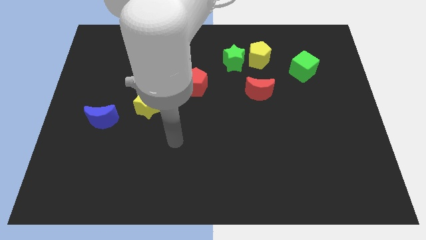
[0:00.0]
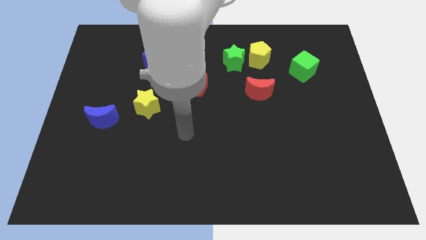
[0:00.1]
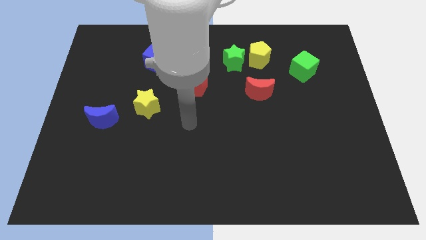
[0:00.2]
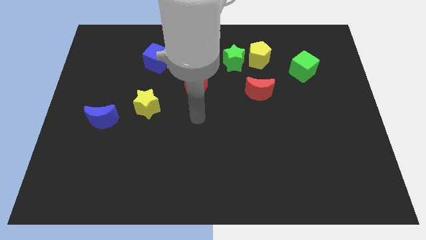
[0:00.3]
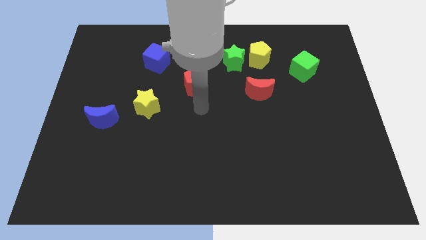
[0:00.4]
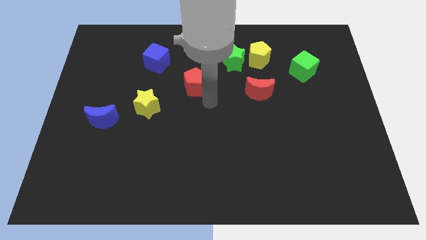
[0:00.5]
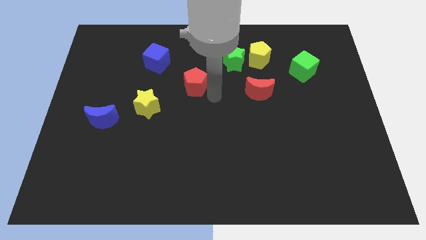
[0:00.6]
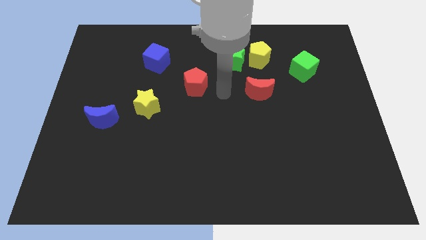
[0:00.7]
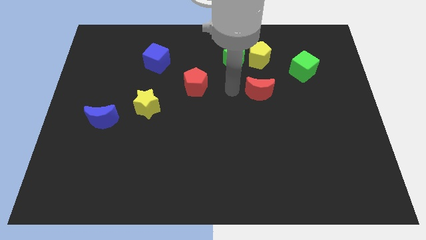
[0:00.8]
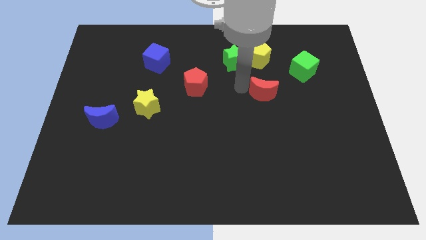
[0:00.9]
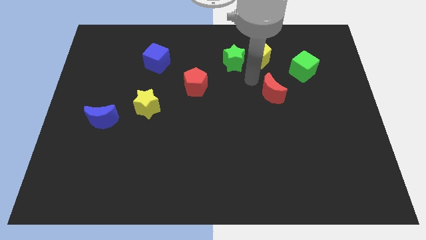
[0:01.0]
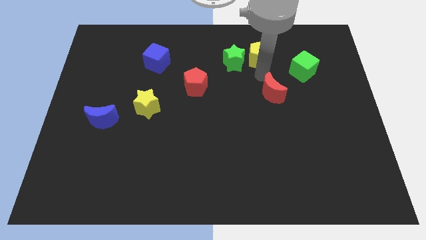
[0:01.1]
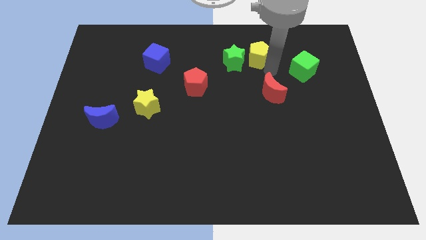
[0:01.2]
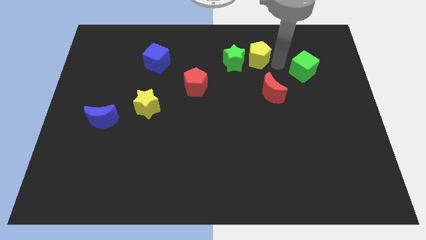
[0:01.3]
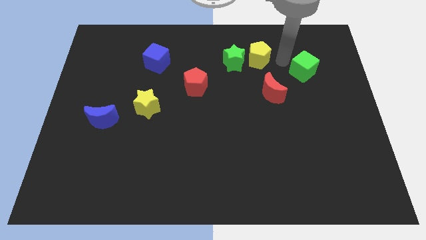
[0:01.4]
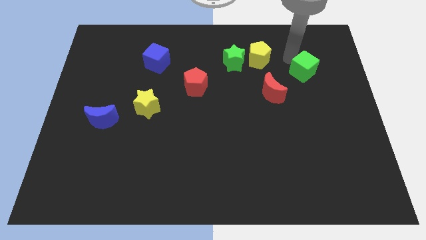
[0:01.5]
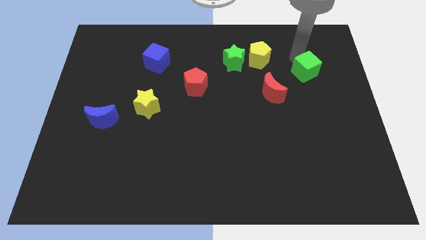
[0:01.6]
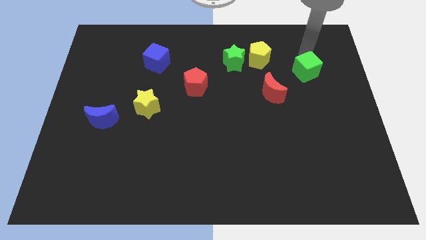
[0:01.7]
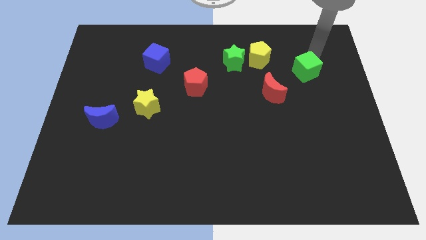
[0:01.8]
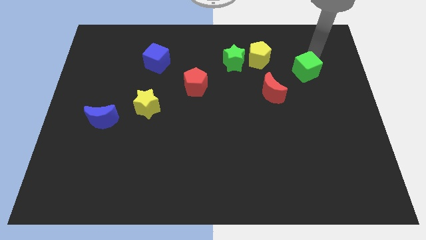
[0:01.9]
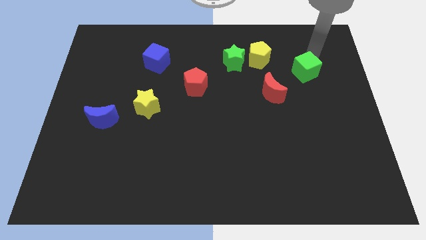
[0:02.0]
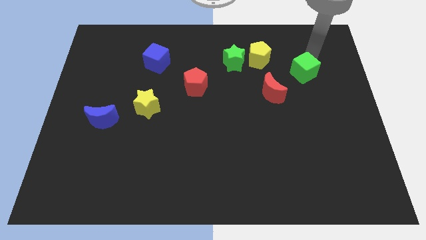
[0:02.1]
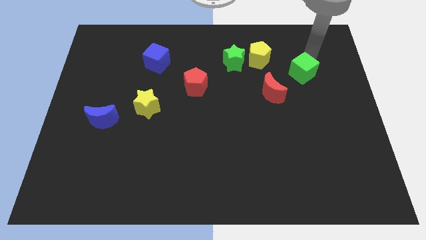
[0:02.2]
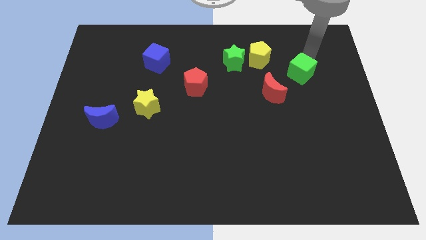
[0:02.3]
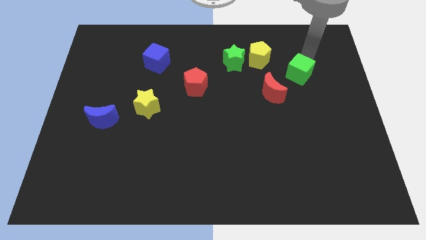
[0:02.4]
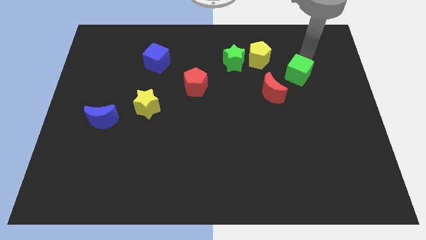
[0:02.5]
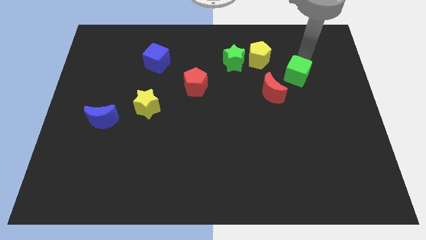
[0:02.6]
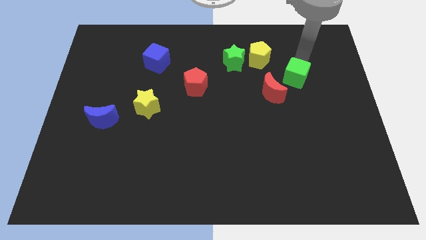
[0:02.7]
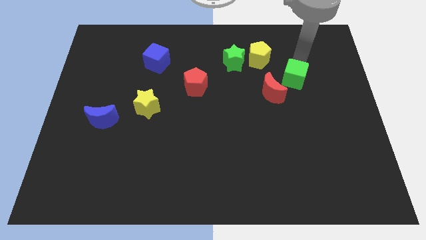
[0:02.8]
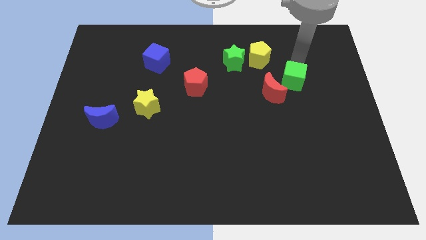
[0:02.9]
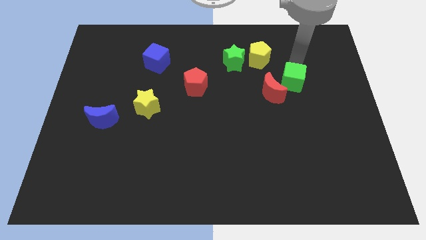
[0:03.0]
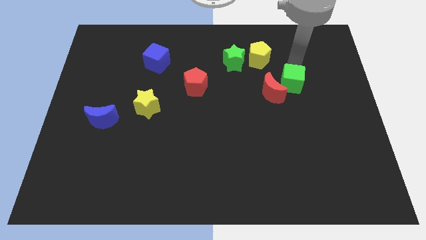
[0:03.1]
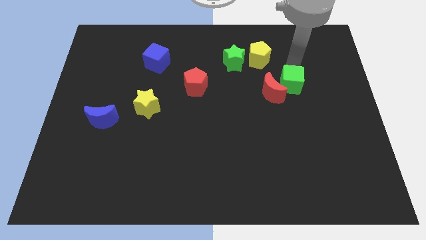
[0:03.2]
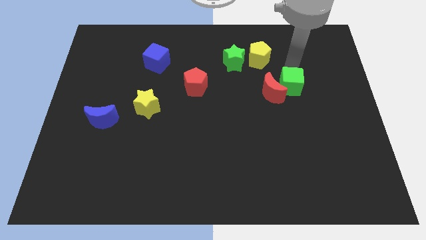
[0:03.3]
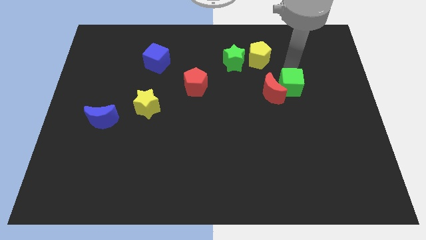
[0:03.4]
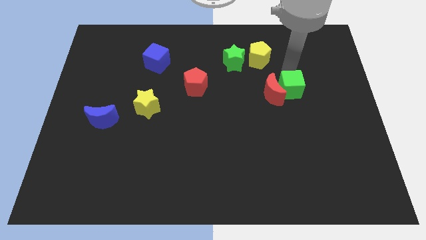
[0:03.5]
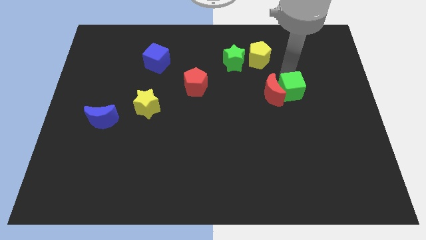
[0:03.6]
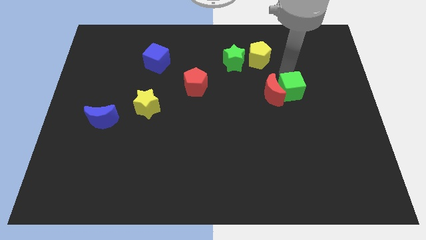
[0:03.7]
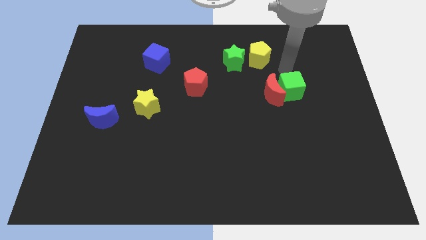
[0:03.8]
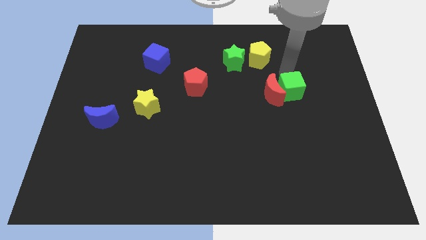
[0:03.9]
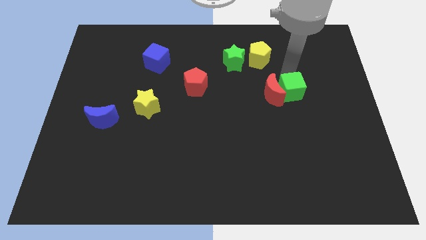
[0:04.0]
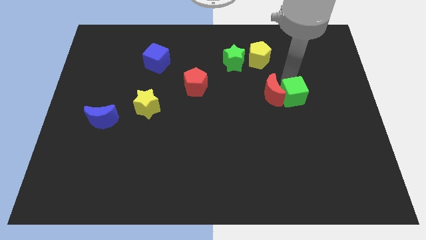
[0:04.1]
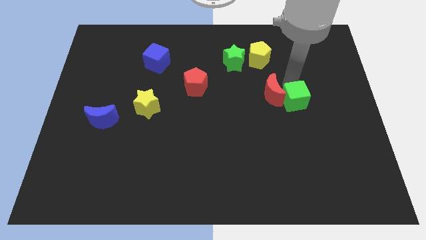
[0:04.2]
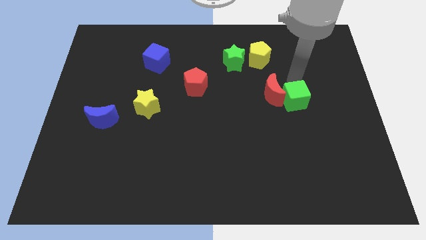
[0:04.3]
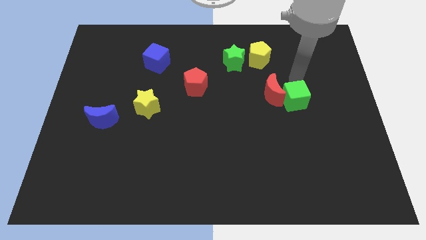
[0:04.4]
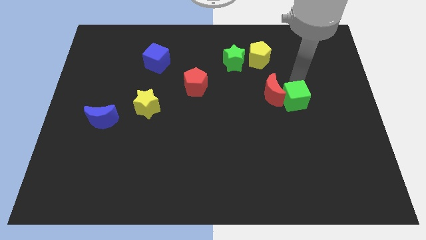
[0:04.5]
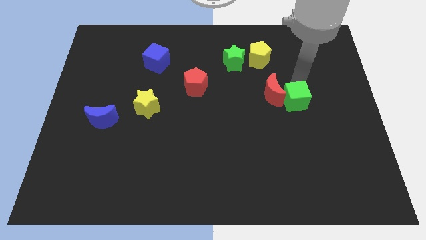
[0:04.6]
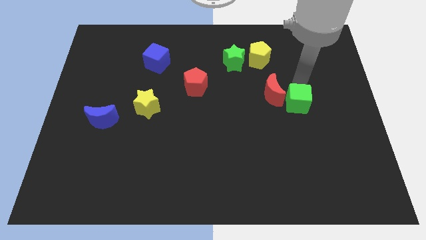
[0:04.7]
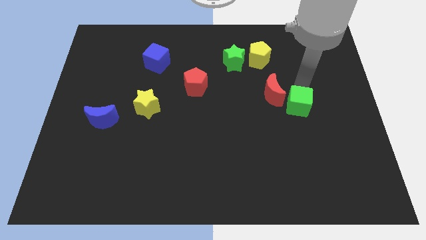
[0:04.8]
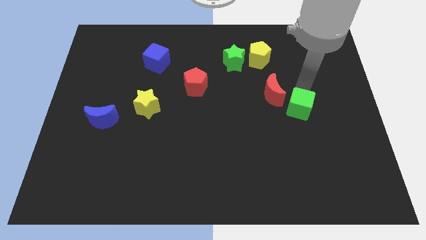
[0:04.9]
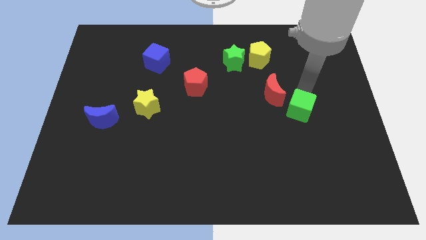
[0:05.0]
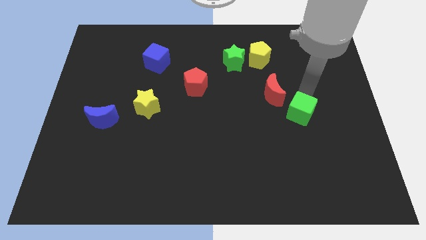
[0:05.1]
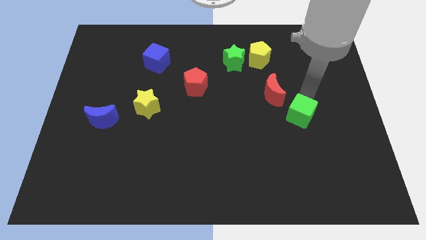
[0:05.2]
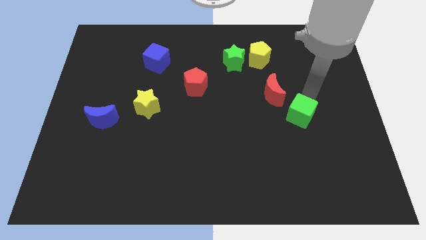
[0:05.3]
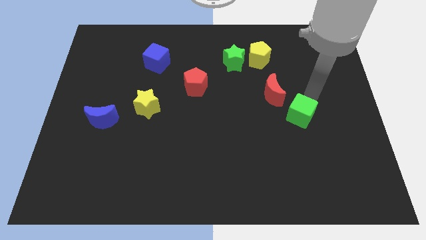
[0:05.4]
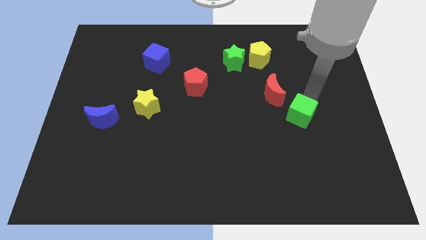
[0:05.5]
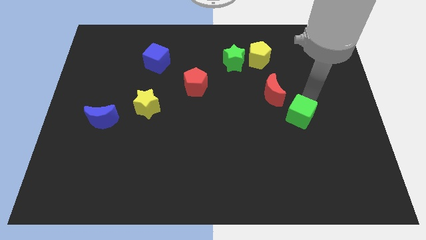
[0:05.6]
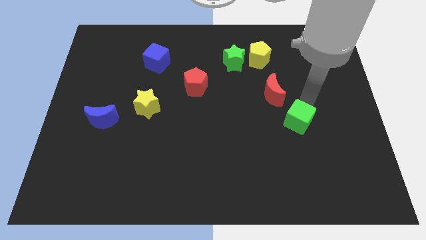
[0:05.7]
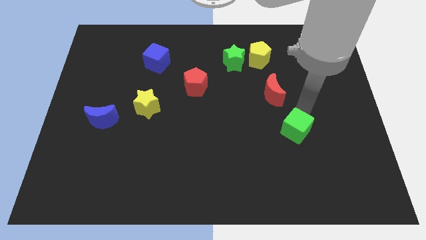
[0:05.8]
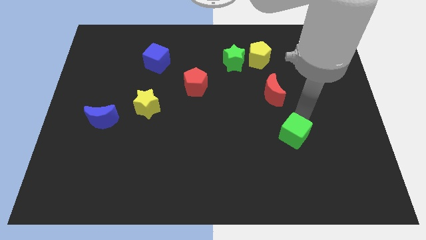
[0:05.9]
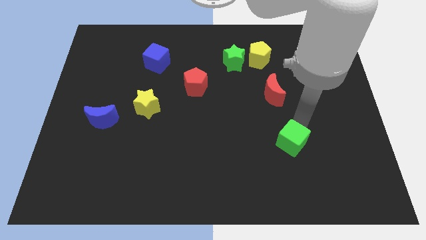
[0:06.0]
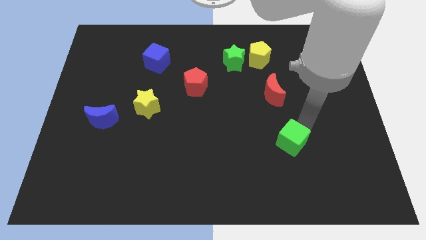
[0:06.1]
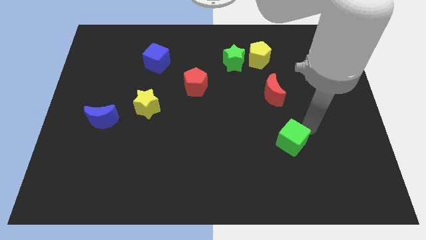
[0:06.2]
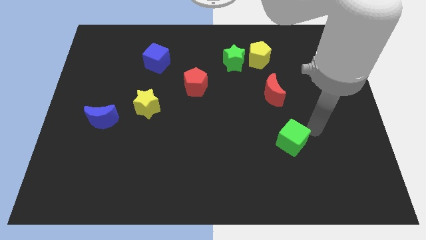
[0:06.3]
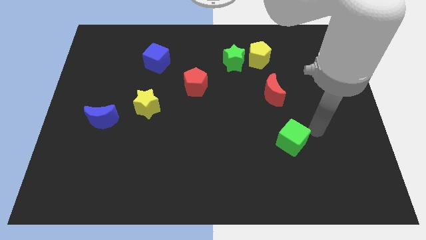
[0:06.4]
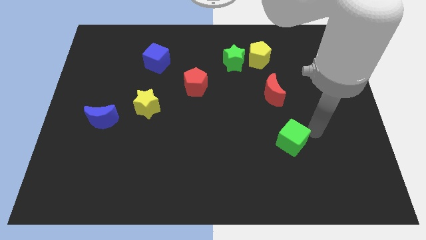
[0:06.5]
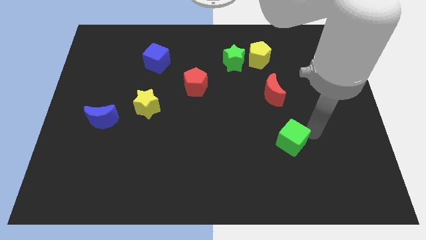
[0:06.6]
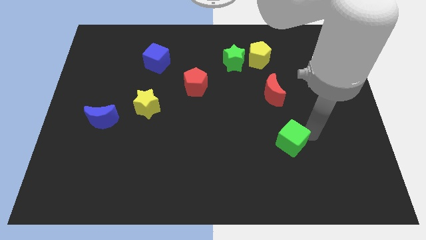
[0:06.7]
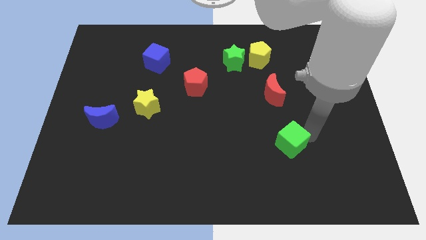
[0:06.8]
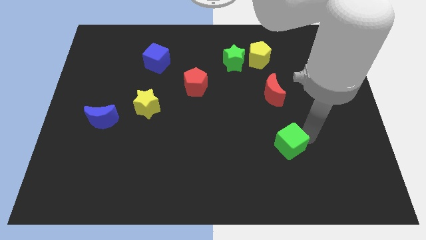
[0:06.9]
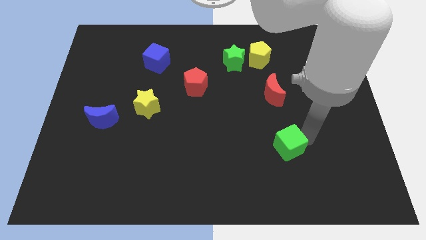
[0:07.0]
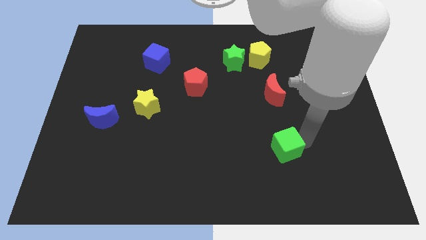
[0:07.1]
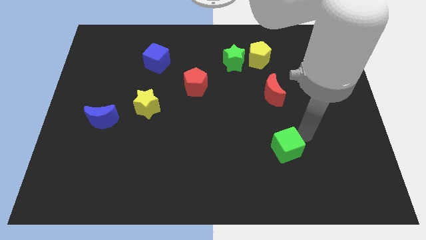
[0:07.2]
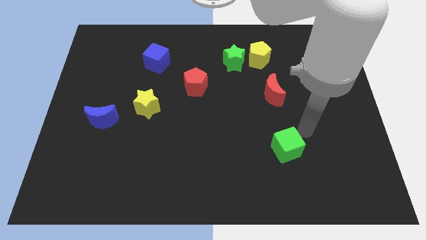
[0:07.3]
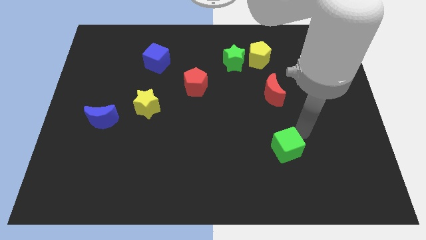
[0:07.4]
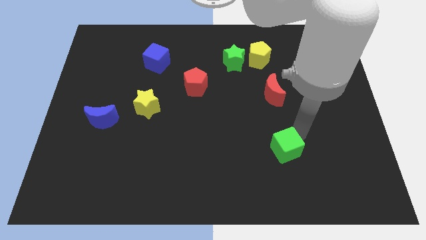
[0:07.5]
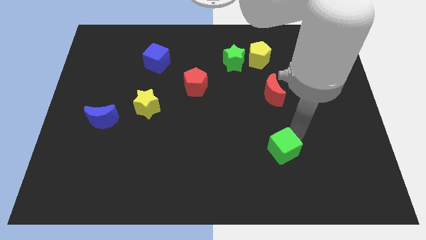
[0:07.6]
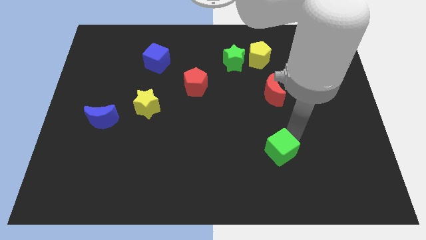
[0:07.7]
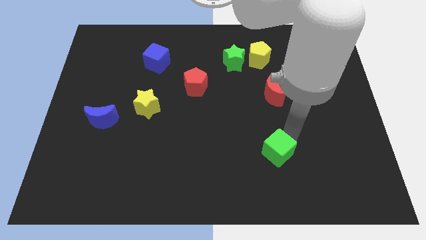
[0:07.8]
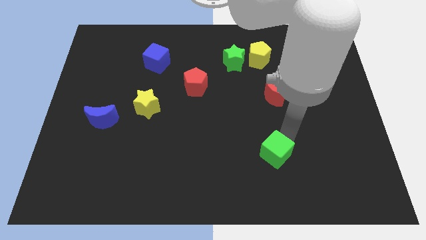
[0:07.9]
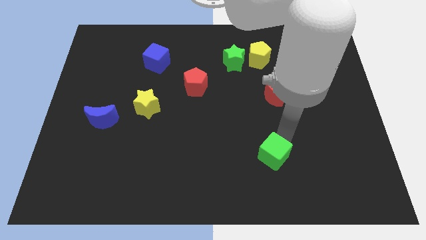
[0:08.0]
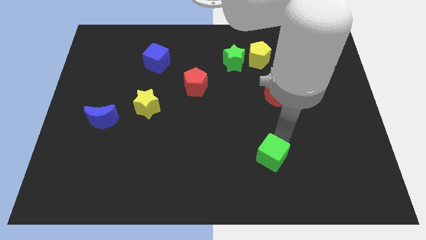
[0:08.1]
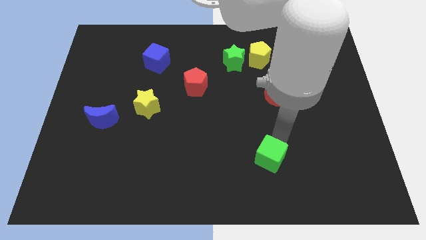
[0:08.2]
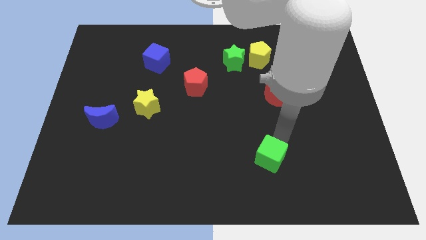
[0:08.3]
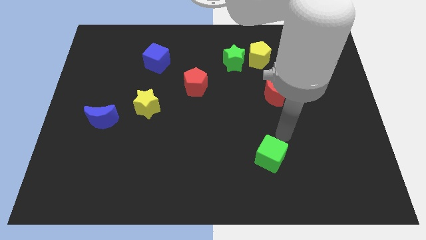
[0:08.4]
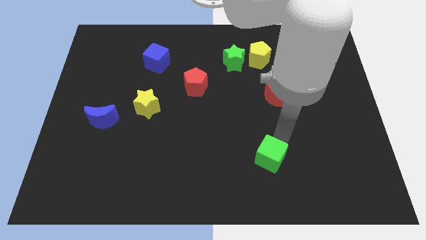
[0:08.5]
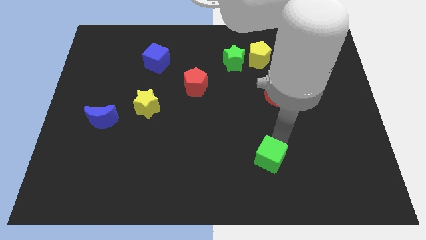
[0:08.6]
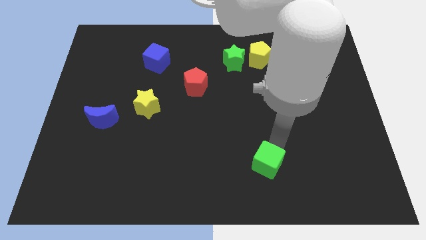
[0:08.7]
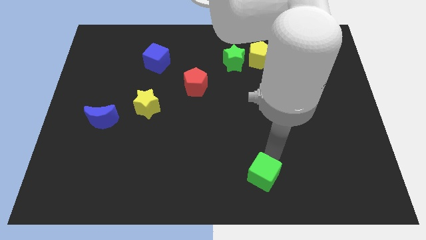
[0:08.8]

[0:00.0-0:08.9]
move the green cube to the bottom
